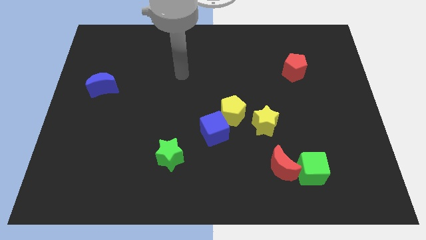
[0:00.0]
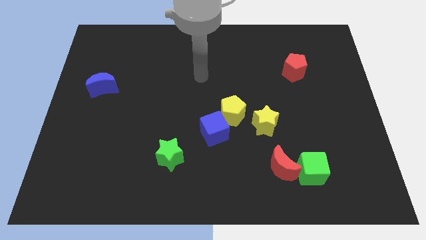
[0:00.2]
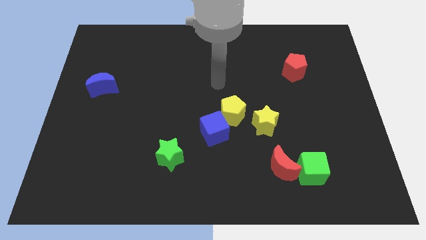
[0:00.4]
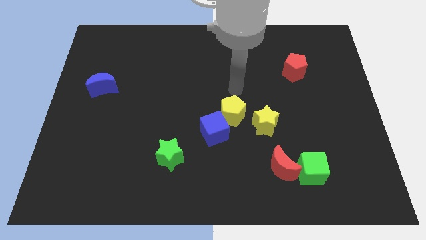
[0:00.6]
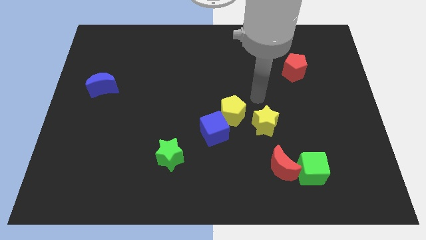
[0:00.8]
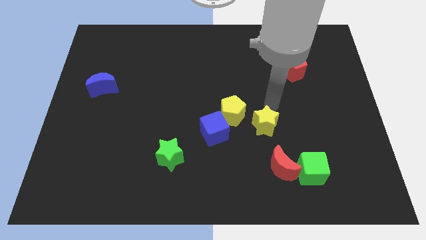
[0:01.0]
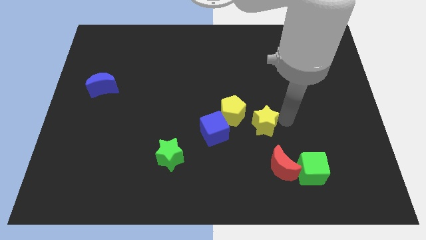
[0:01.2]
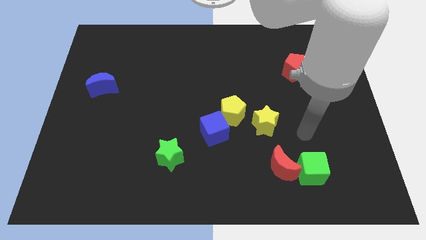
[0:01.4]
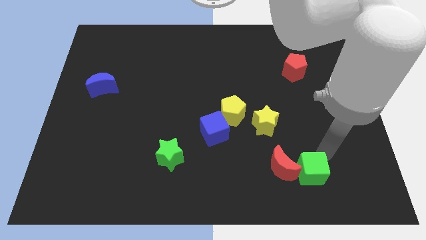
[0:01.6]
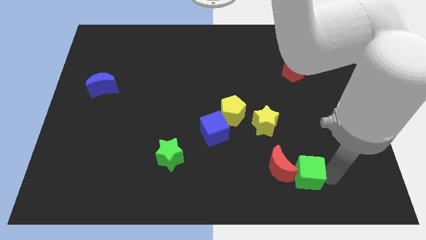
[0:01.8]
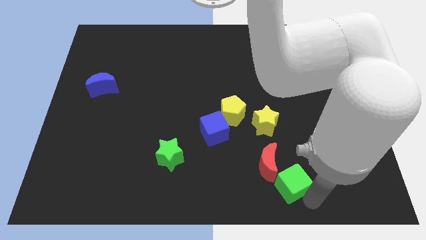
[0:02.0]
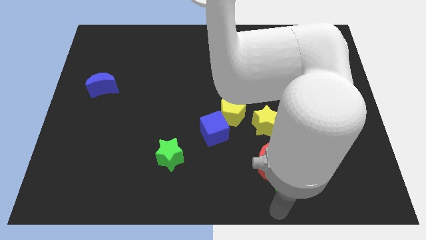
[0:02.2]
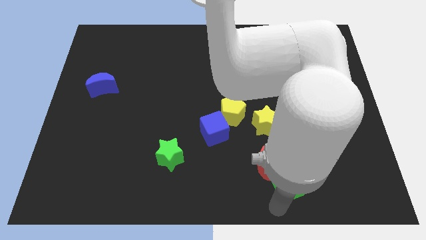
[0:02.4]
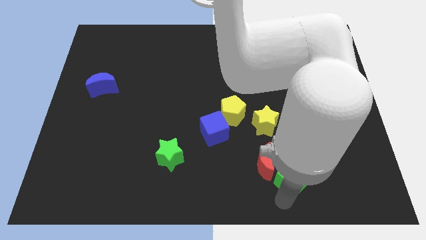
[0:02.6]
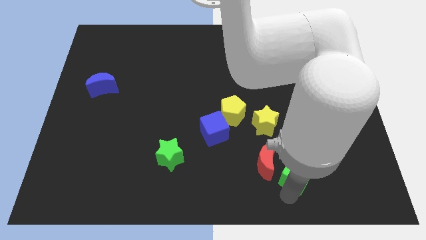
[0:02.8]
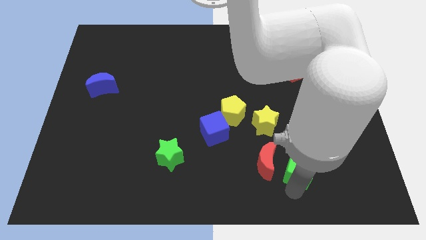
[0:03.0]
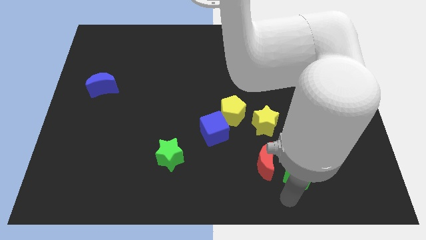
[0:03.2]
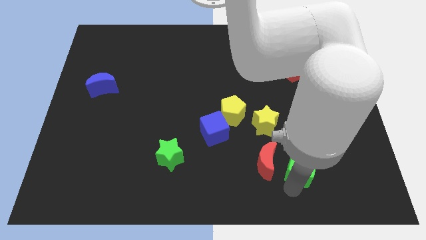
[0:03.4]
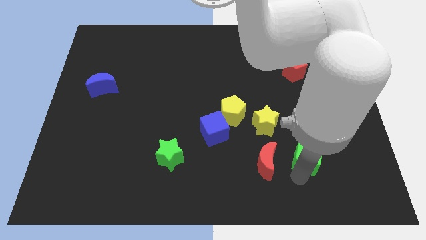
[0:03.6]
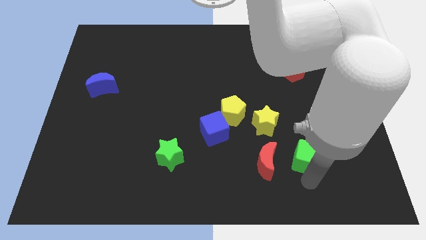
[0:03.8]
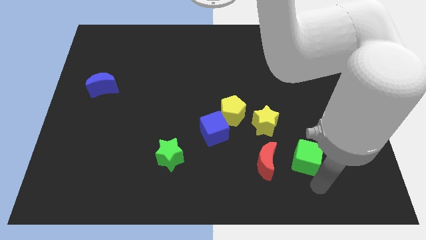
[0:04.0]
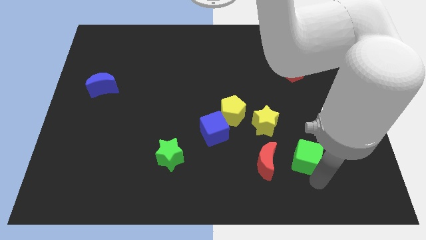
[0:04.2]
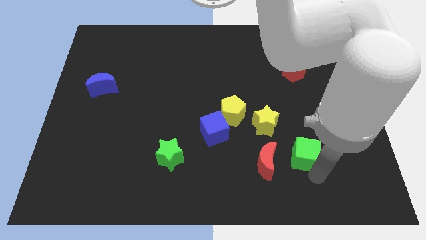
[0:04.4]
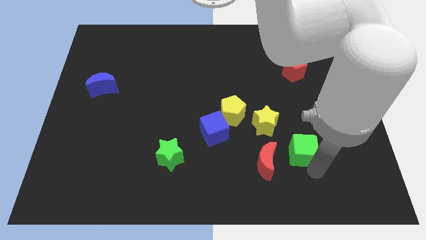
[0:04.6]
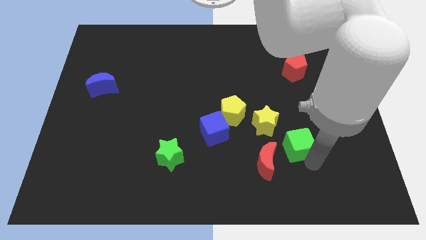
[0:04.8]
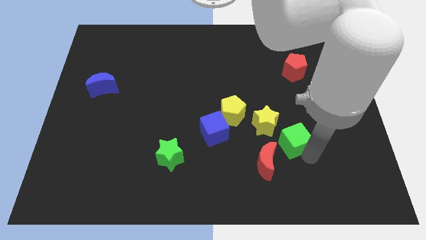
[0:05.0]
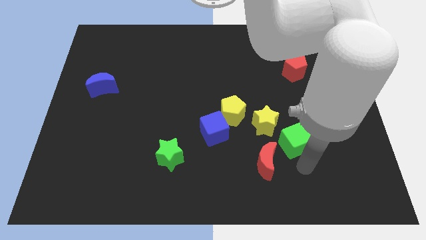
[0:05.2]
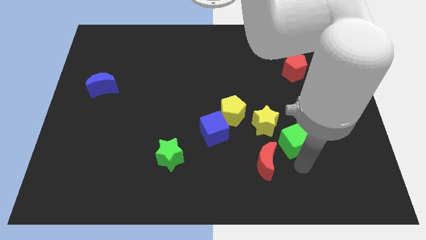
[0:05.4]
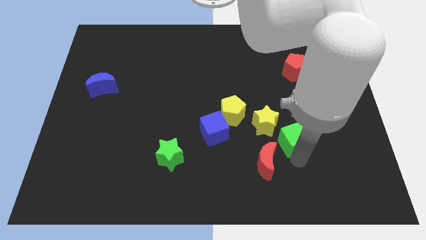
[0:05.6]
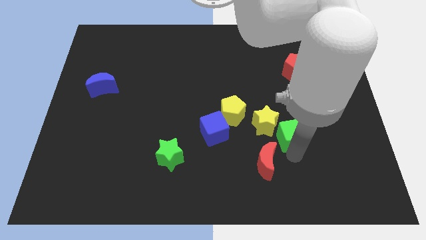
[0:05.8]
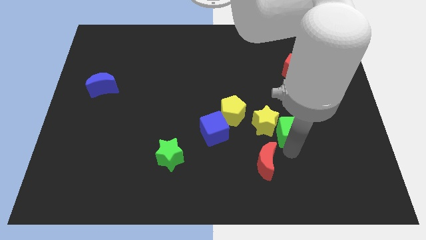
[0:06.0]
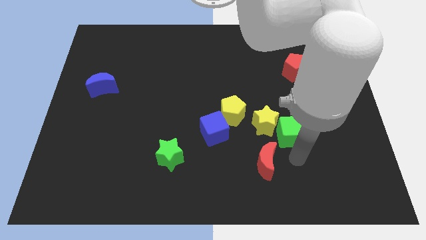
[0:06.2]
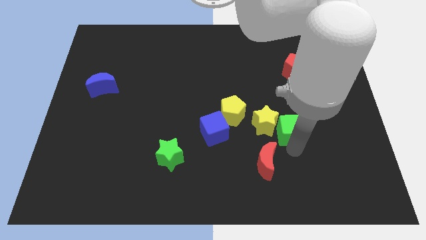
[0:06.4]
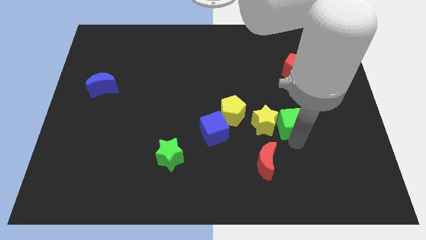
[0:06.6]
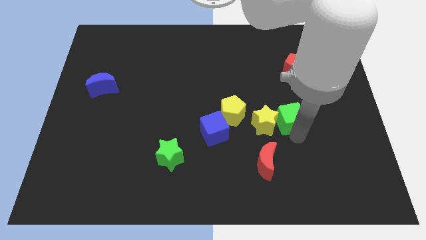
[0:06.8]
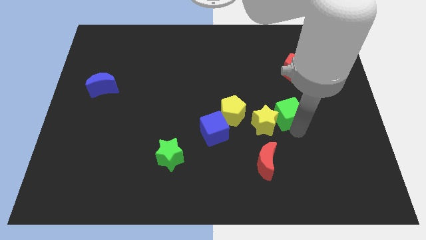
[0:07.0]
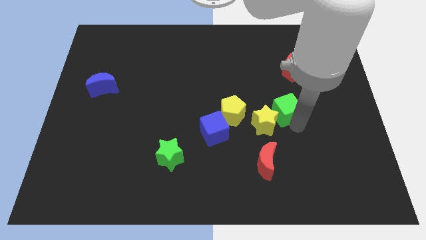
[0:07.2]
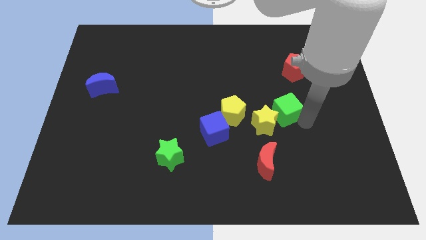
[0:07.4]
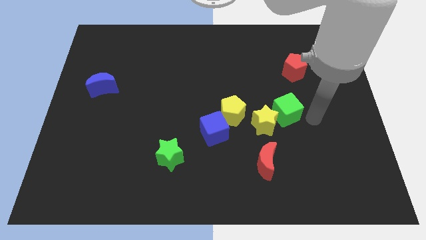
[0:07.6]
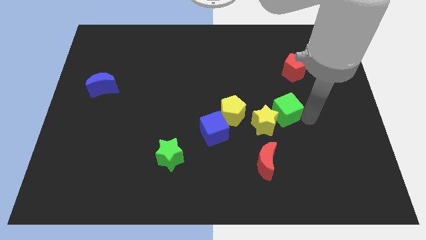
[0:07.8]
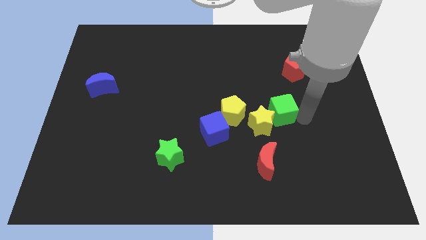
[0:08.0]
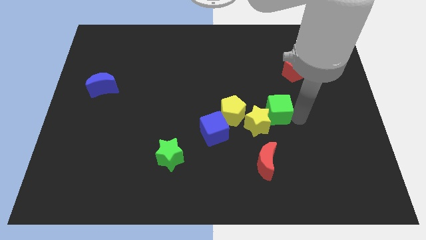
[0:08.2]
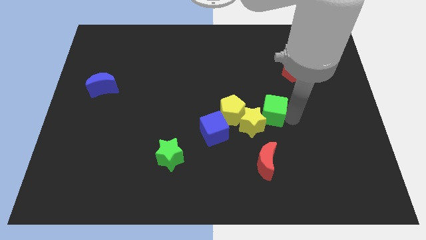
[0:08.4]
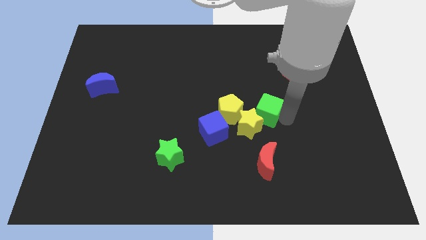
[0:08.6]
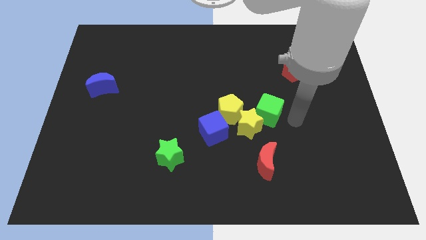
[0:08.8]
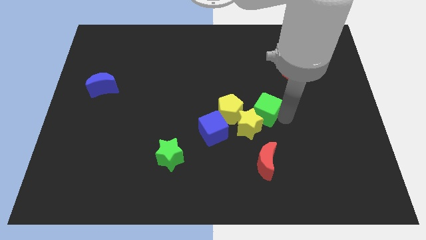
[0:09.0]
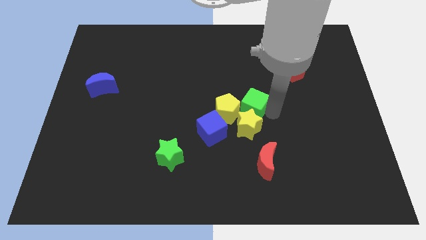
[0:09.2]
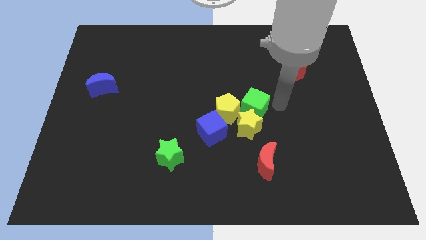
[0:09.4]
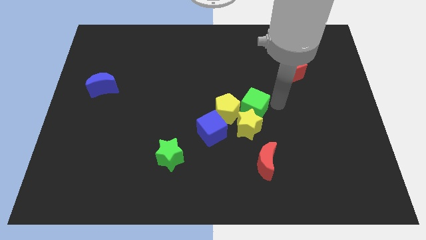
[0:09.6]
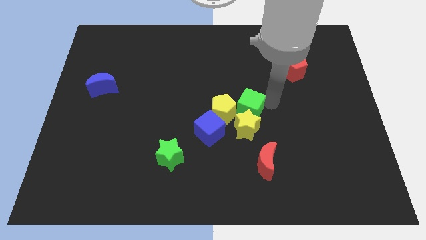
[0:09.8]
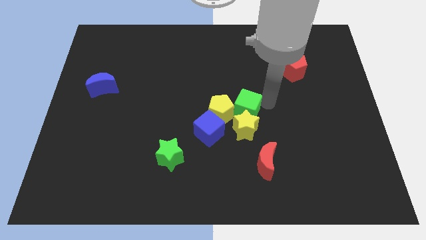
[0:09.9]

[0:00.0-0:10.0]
move the green cube close to the yellow pentagon
